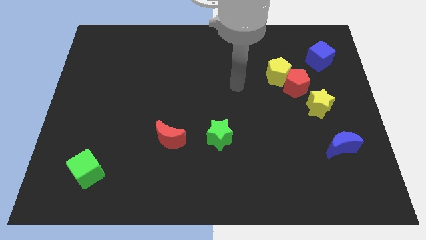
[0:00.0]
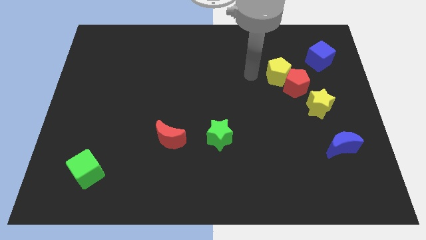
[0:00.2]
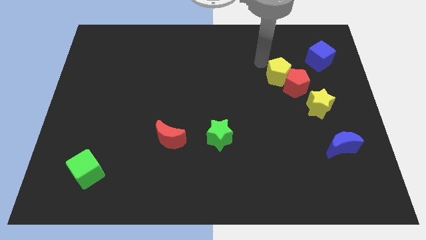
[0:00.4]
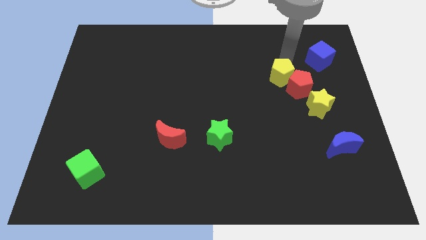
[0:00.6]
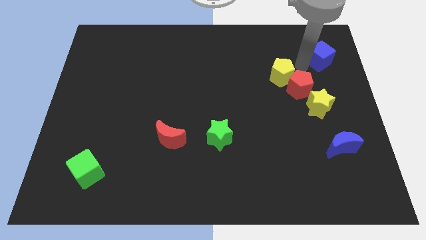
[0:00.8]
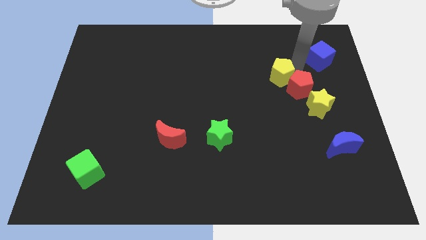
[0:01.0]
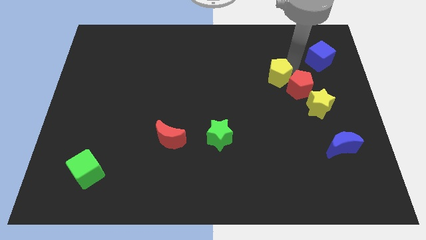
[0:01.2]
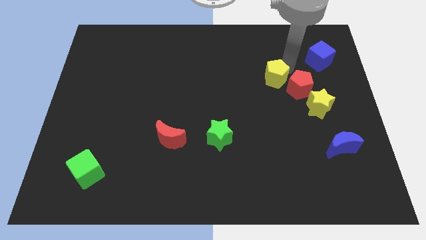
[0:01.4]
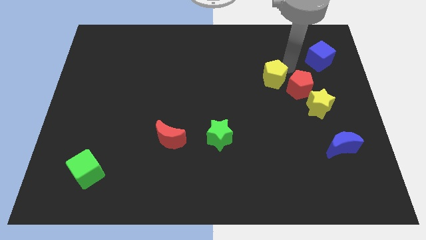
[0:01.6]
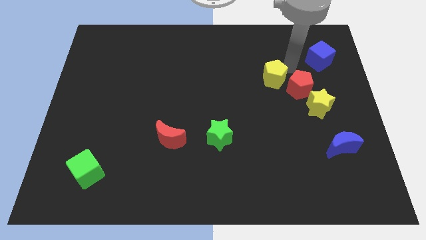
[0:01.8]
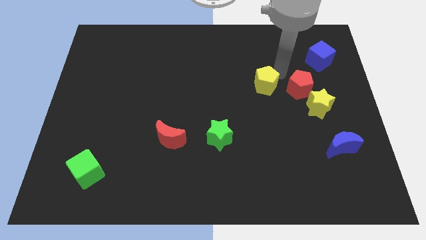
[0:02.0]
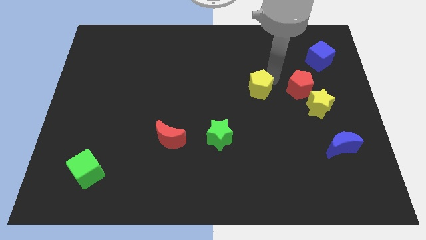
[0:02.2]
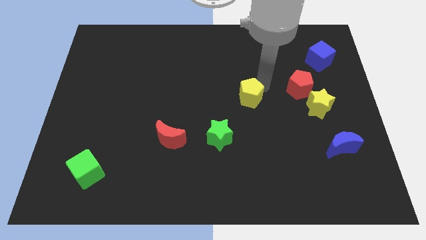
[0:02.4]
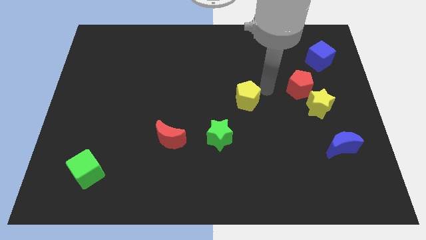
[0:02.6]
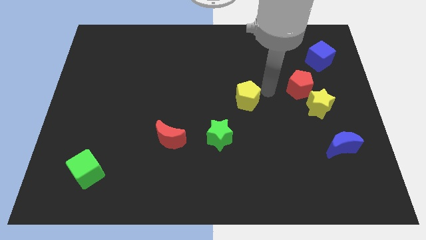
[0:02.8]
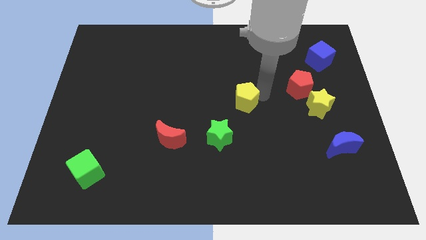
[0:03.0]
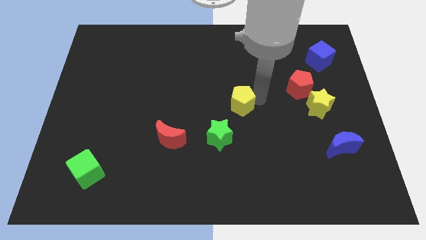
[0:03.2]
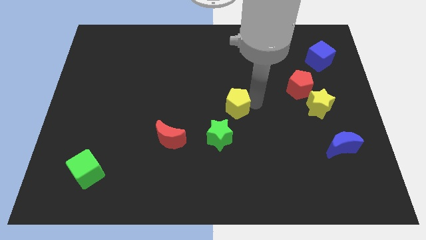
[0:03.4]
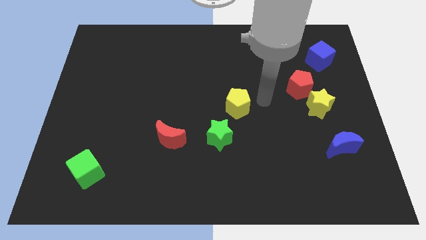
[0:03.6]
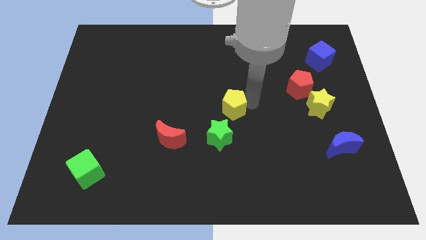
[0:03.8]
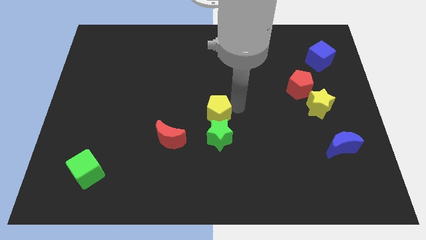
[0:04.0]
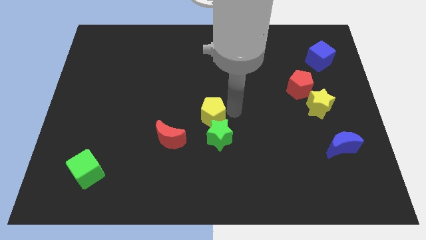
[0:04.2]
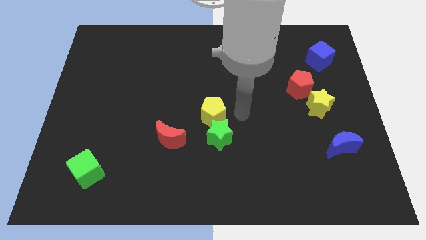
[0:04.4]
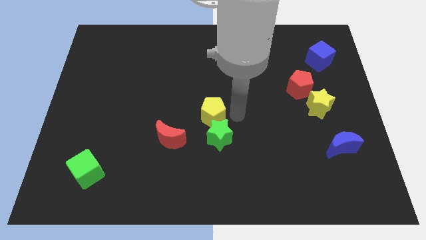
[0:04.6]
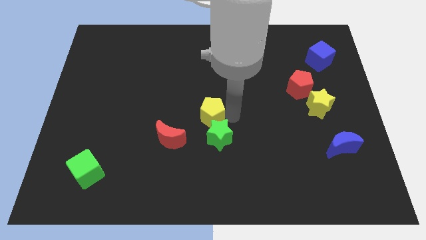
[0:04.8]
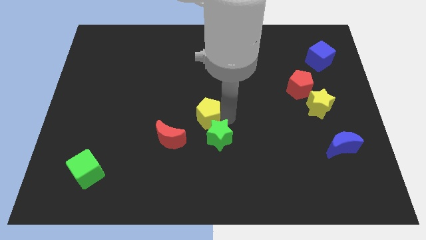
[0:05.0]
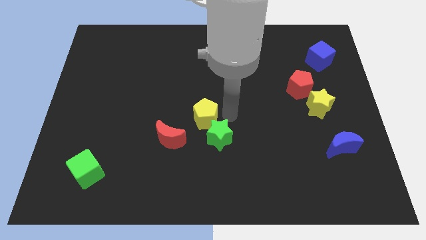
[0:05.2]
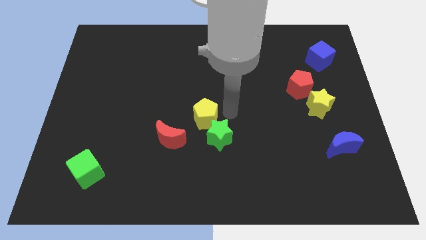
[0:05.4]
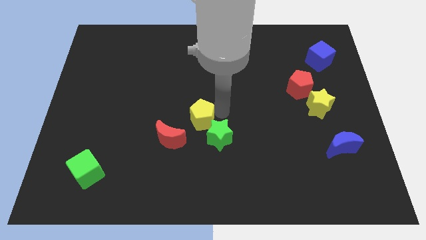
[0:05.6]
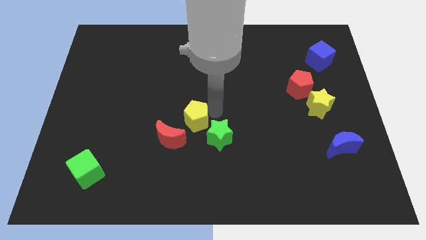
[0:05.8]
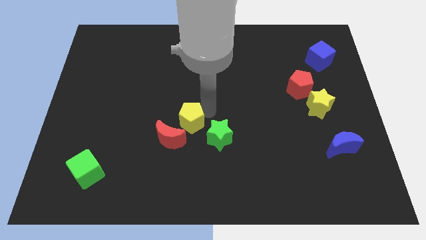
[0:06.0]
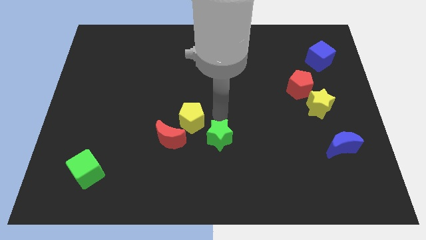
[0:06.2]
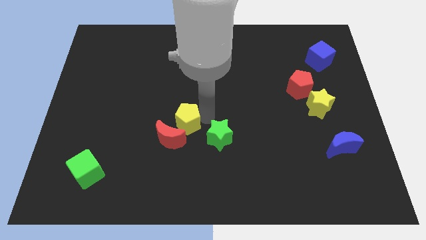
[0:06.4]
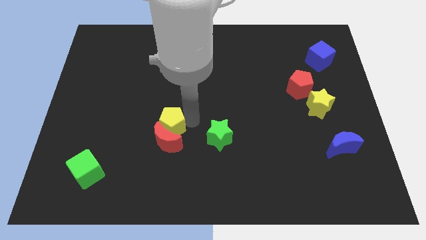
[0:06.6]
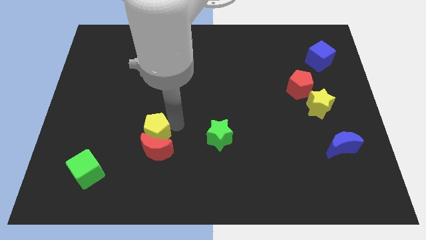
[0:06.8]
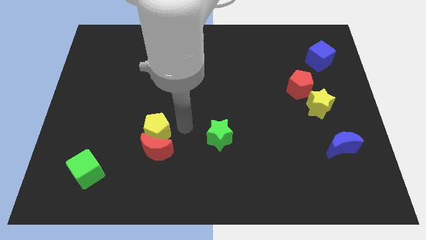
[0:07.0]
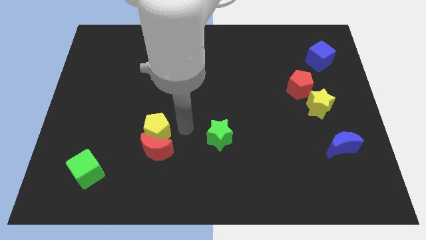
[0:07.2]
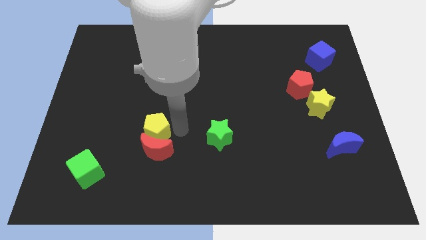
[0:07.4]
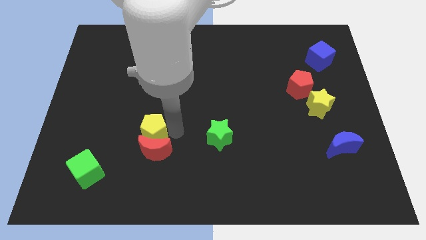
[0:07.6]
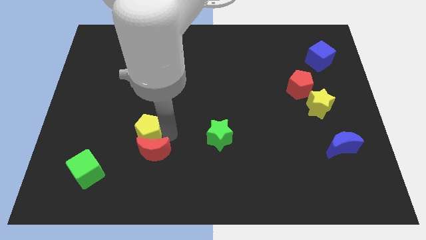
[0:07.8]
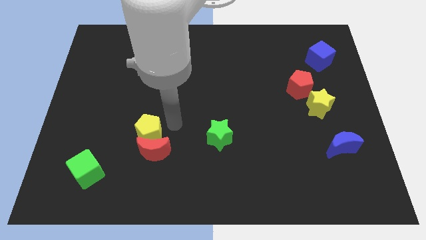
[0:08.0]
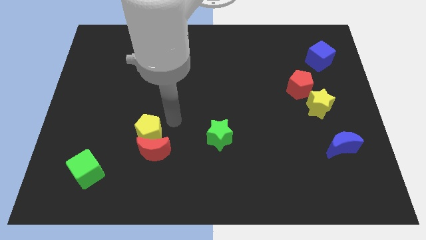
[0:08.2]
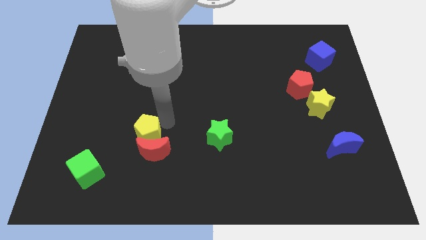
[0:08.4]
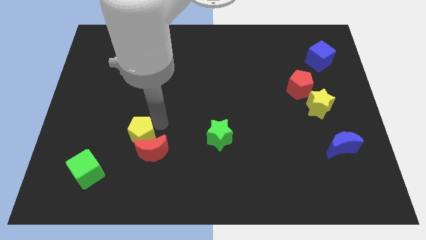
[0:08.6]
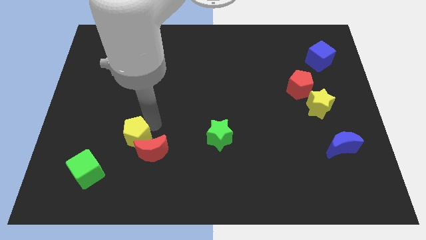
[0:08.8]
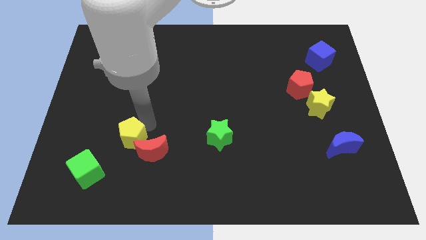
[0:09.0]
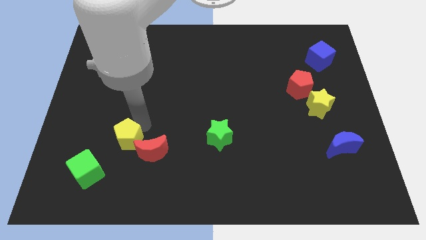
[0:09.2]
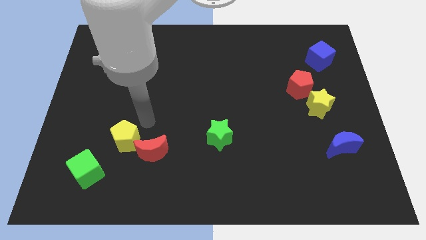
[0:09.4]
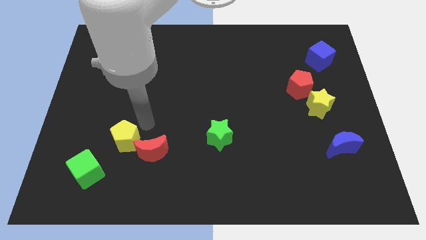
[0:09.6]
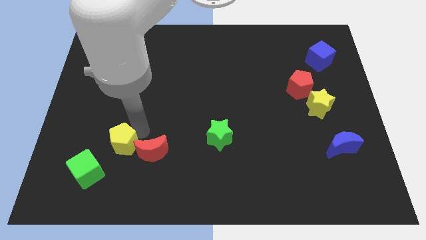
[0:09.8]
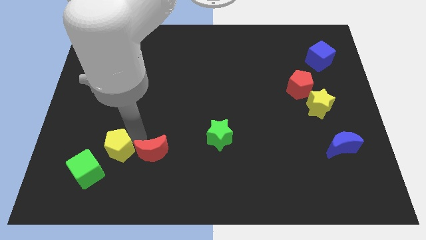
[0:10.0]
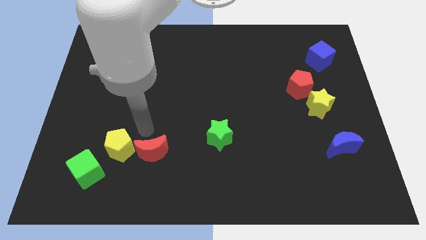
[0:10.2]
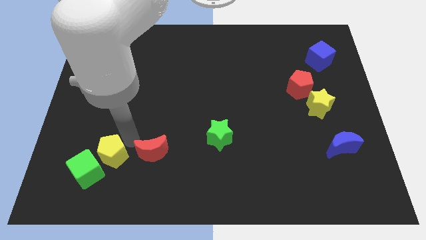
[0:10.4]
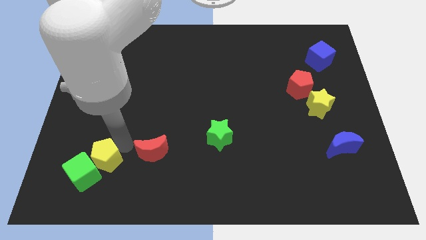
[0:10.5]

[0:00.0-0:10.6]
slide the yellow pentagon to the green cube

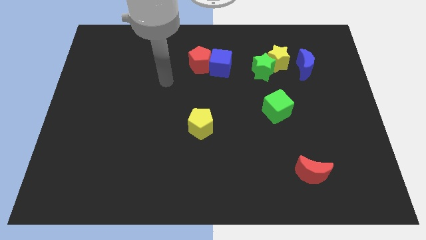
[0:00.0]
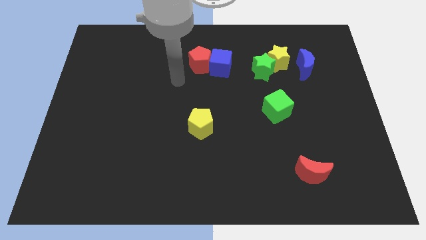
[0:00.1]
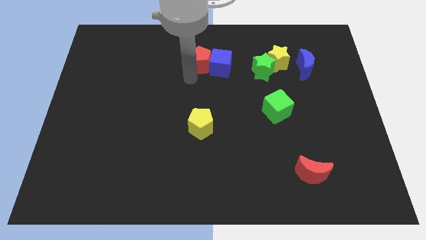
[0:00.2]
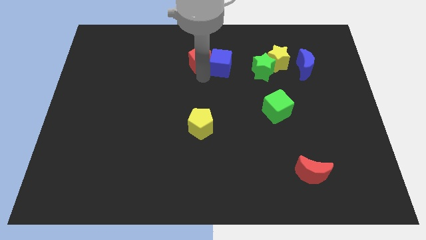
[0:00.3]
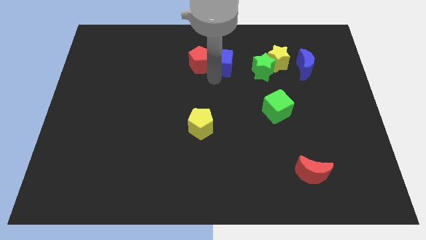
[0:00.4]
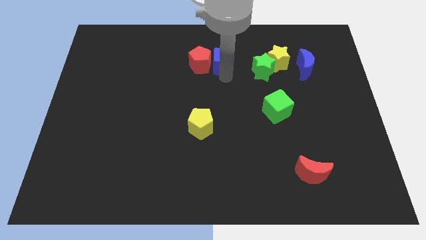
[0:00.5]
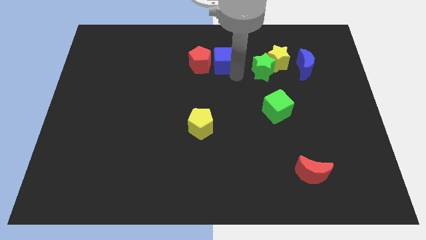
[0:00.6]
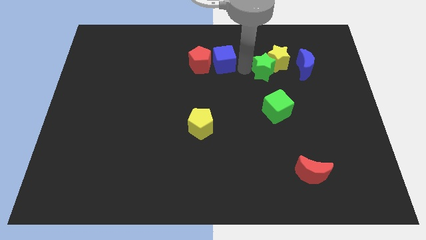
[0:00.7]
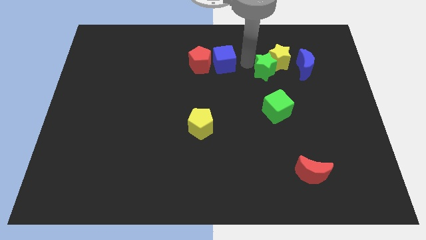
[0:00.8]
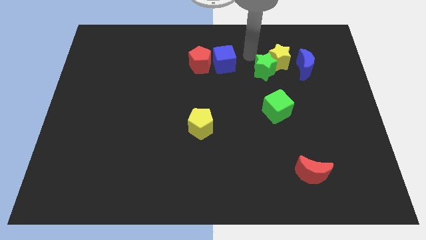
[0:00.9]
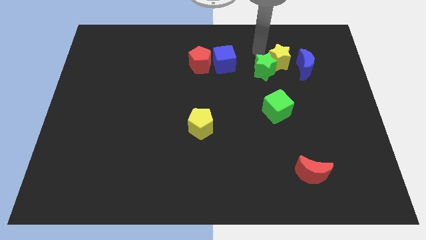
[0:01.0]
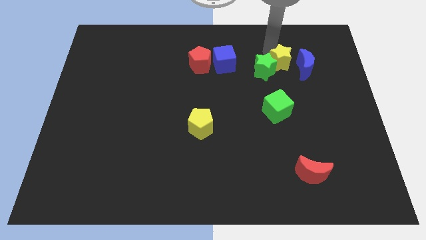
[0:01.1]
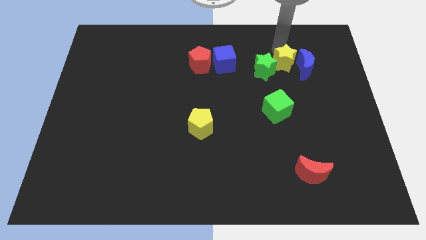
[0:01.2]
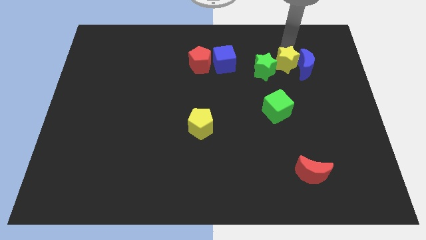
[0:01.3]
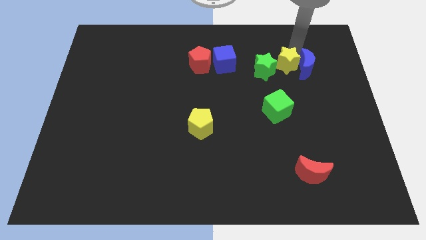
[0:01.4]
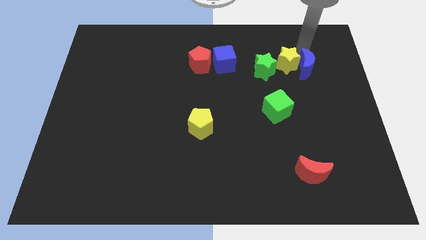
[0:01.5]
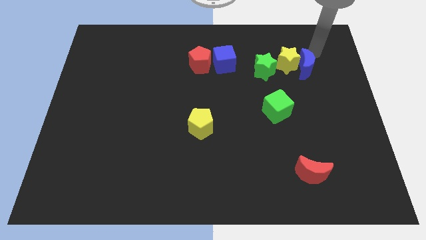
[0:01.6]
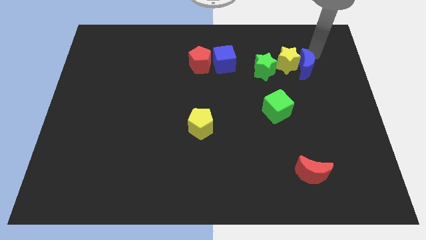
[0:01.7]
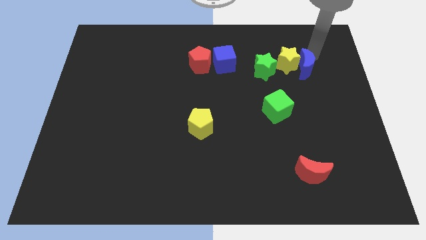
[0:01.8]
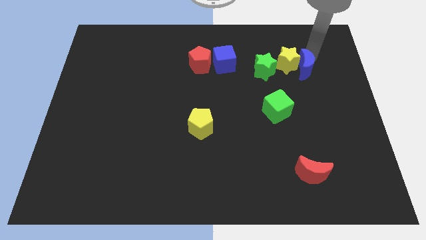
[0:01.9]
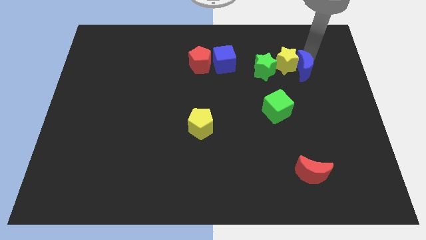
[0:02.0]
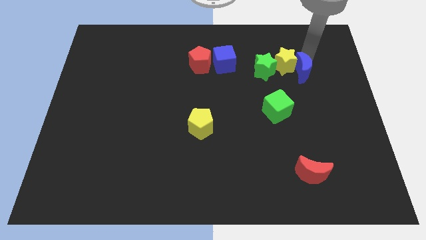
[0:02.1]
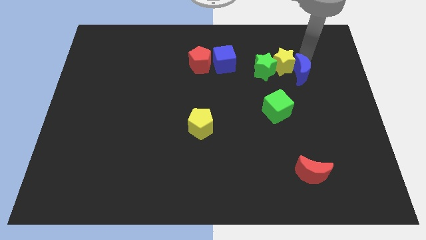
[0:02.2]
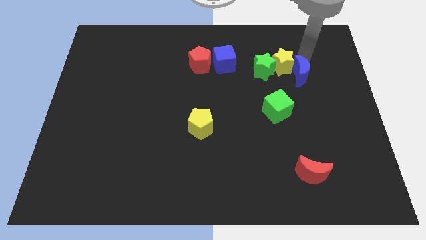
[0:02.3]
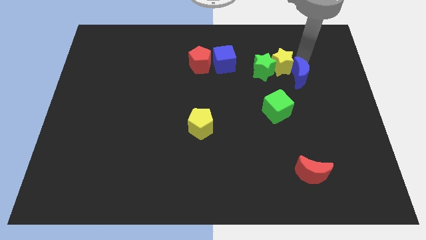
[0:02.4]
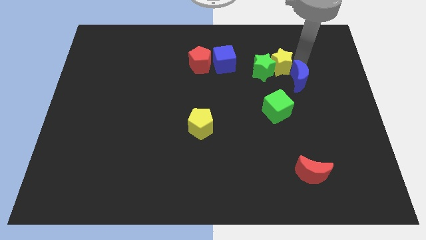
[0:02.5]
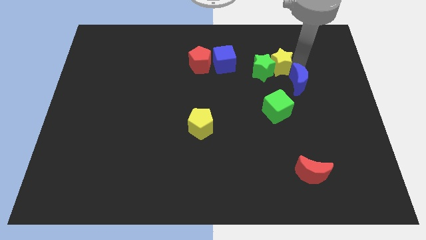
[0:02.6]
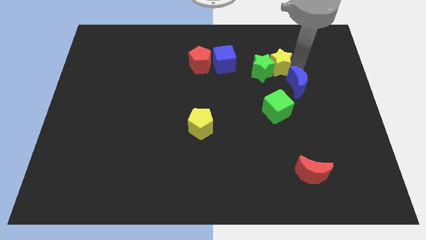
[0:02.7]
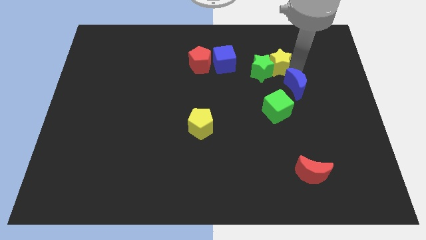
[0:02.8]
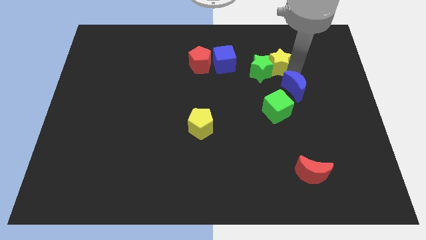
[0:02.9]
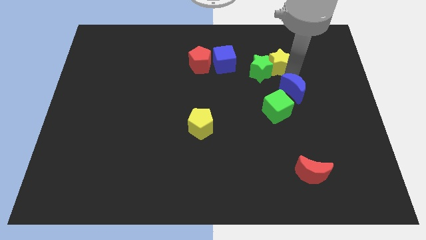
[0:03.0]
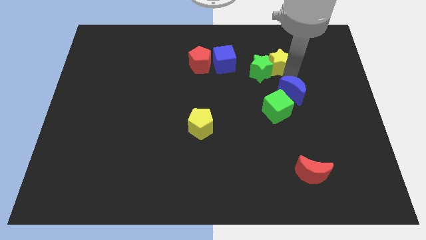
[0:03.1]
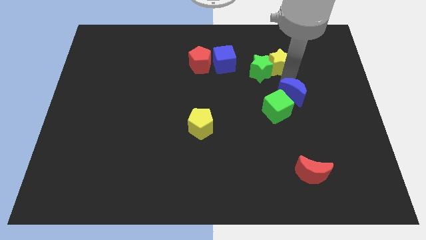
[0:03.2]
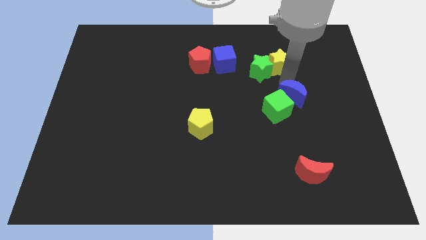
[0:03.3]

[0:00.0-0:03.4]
slide the blue moon to the green cube
